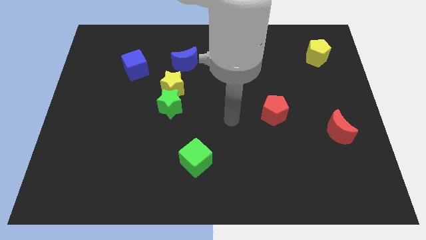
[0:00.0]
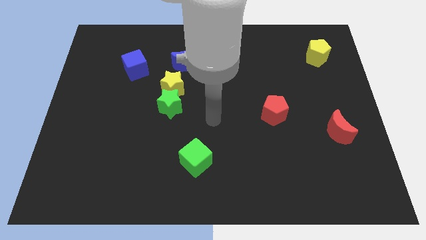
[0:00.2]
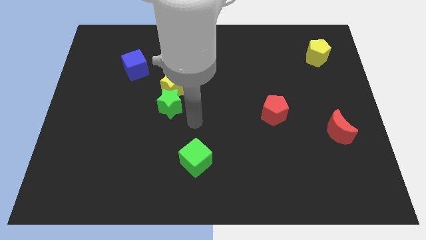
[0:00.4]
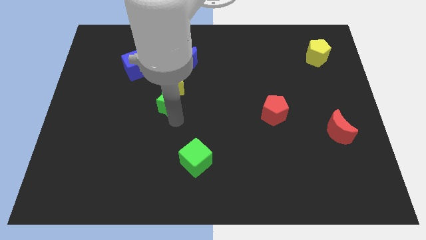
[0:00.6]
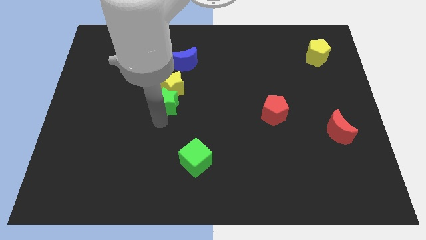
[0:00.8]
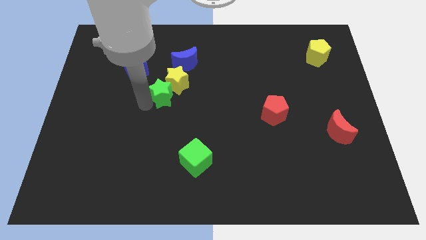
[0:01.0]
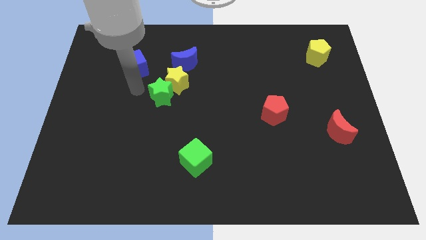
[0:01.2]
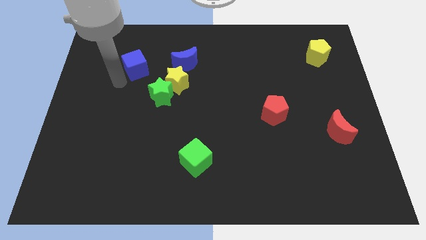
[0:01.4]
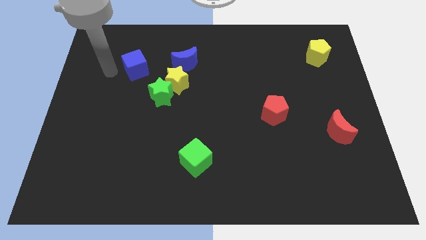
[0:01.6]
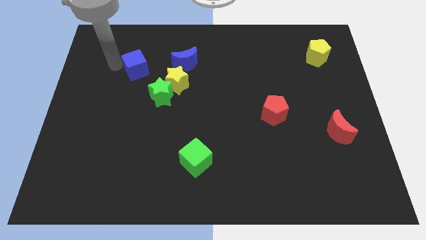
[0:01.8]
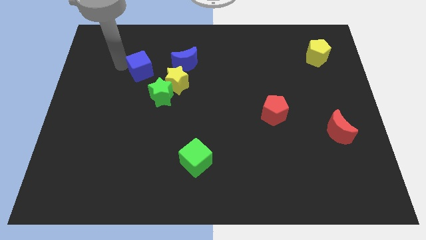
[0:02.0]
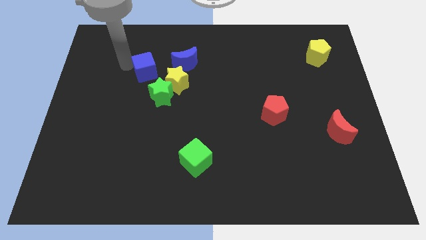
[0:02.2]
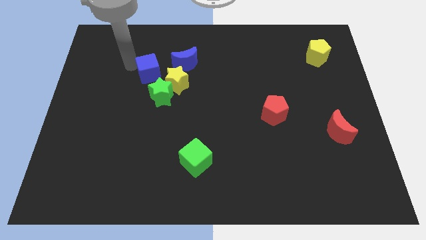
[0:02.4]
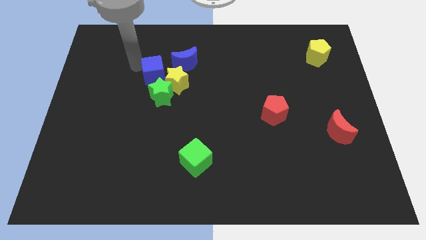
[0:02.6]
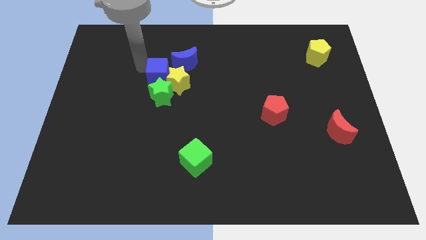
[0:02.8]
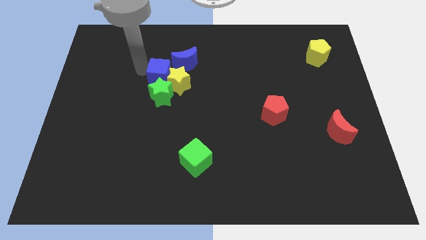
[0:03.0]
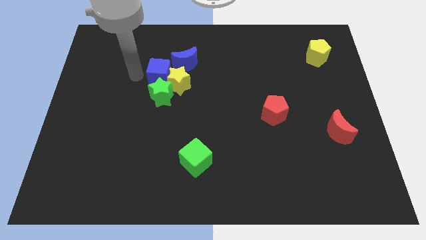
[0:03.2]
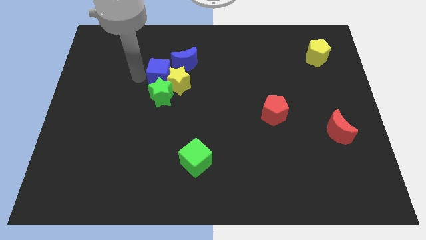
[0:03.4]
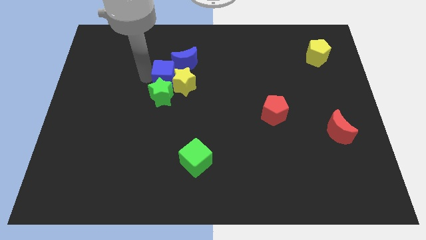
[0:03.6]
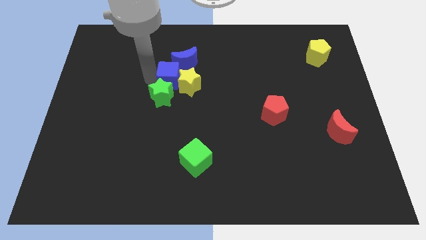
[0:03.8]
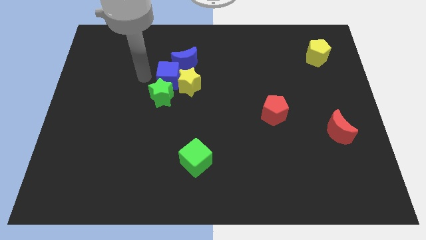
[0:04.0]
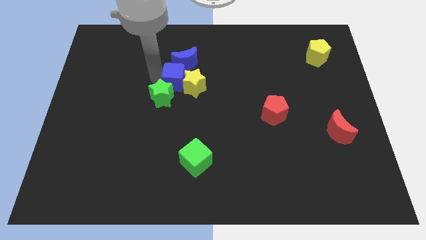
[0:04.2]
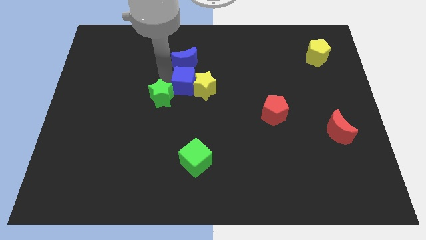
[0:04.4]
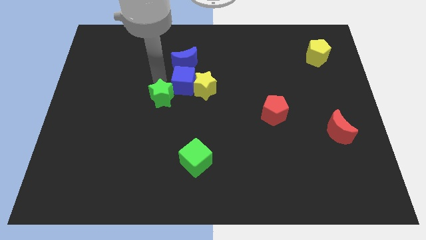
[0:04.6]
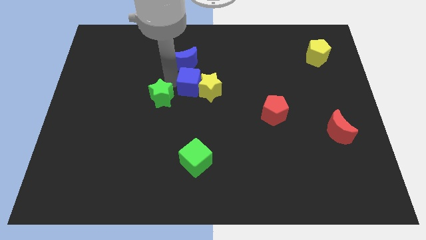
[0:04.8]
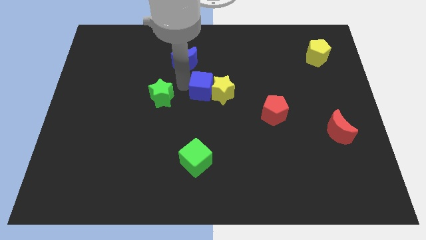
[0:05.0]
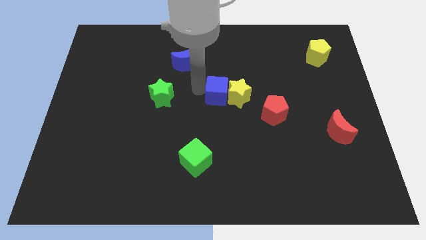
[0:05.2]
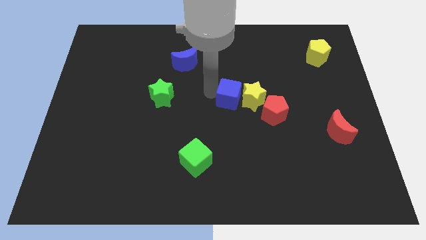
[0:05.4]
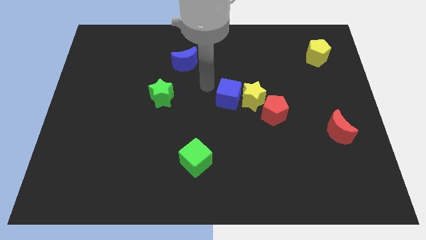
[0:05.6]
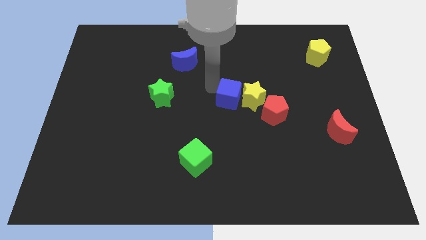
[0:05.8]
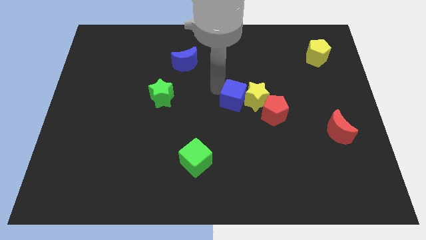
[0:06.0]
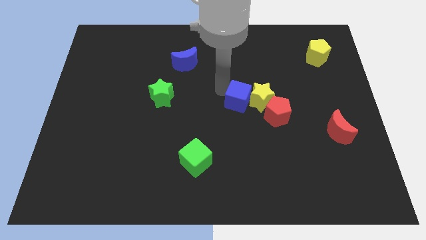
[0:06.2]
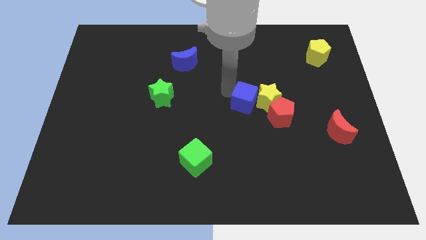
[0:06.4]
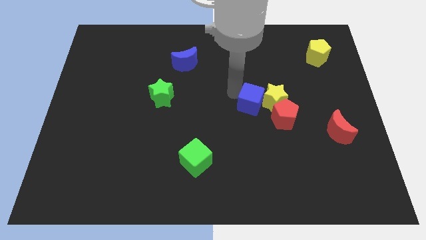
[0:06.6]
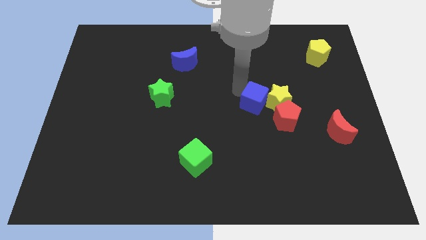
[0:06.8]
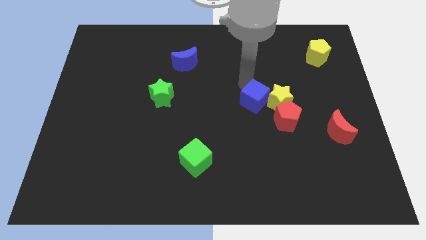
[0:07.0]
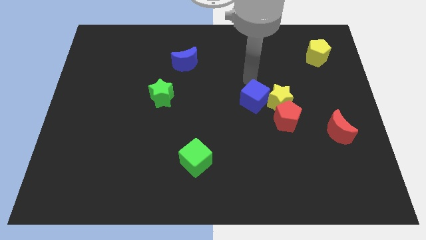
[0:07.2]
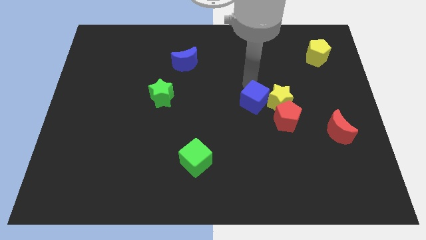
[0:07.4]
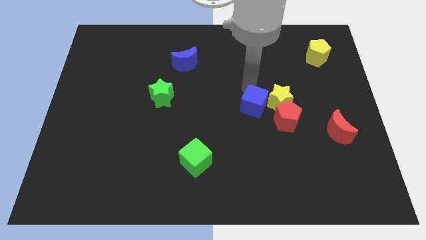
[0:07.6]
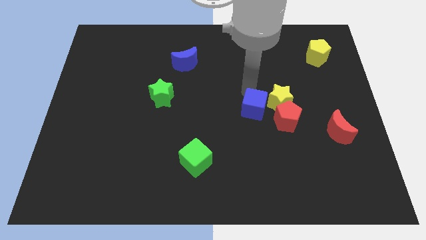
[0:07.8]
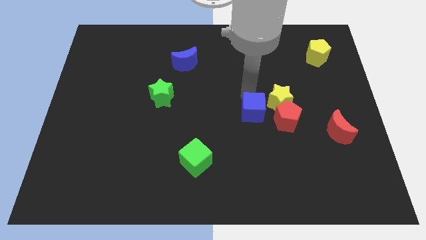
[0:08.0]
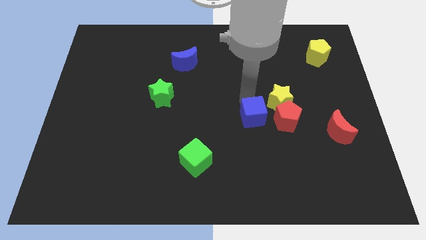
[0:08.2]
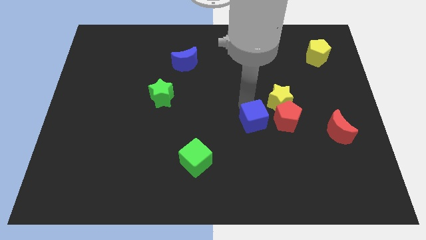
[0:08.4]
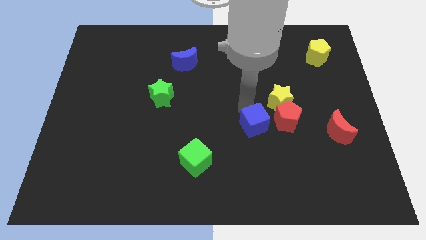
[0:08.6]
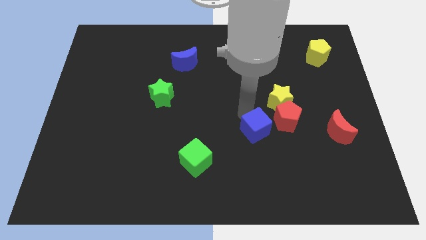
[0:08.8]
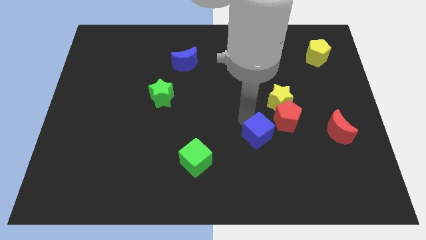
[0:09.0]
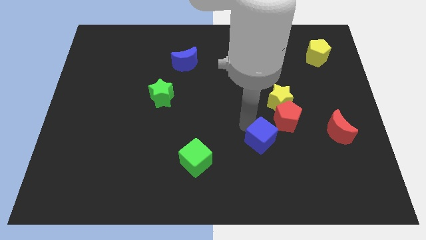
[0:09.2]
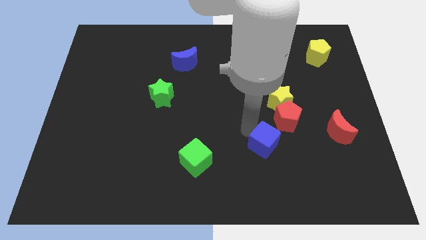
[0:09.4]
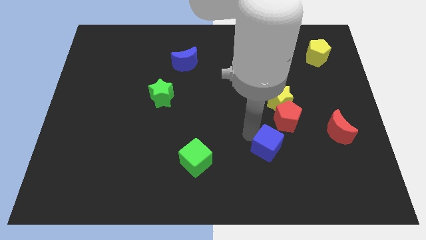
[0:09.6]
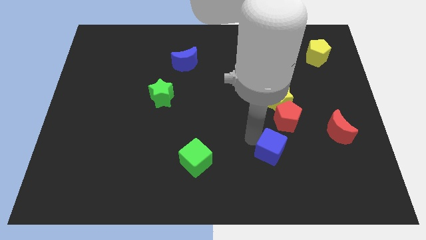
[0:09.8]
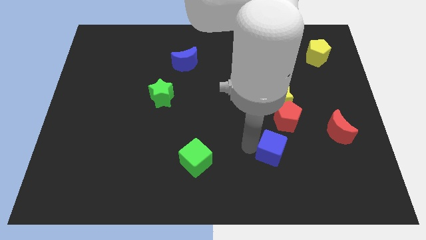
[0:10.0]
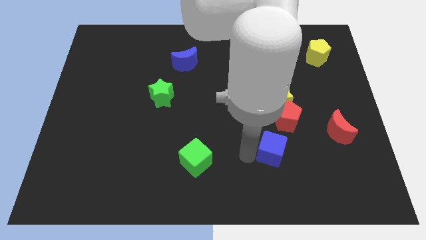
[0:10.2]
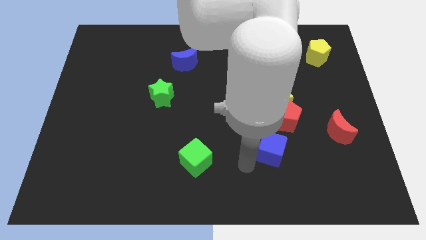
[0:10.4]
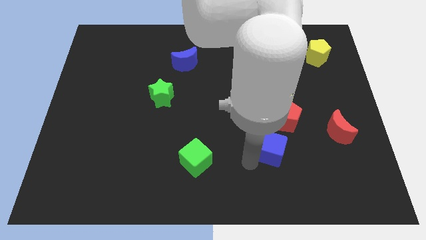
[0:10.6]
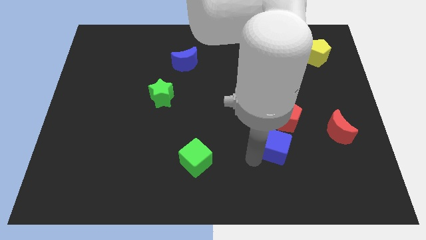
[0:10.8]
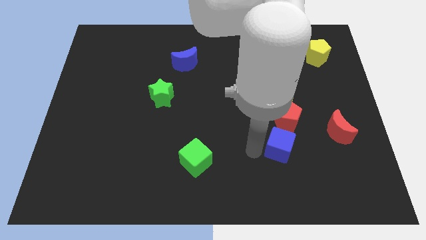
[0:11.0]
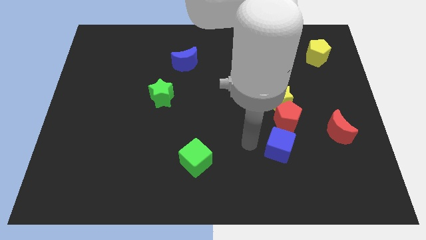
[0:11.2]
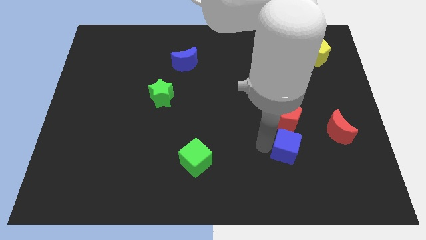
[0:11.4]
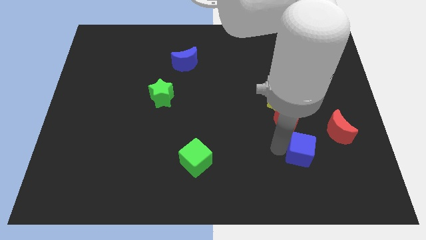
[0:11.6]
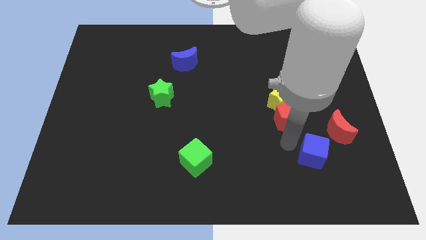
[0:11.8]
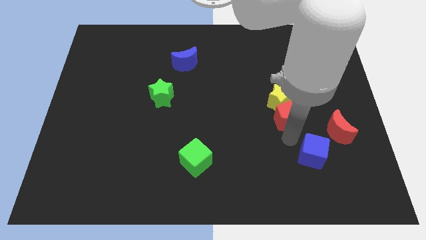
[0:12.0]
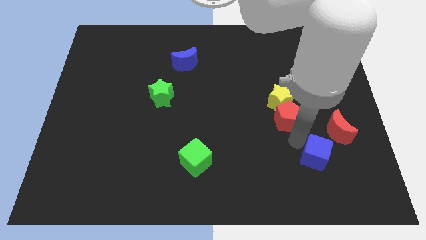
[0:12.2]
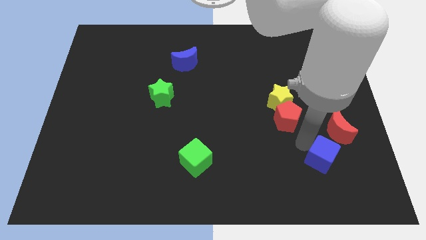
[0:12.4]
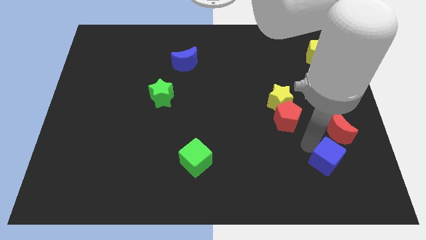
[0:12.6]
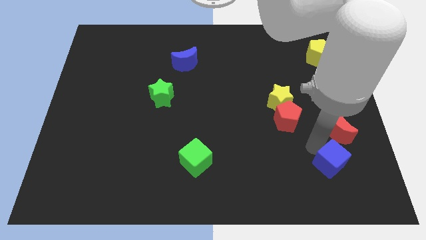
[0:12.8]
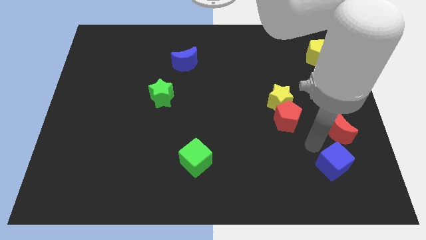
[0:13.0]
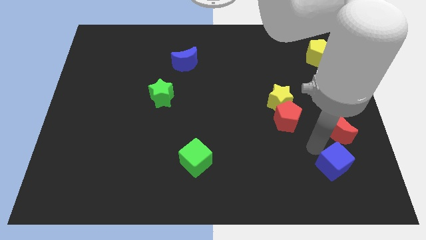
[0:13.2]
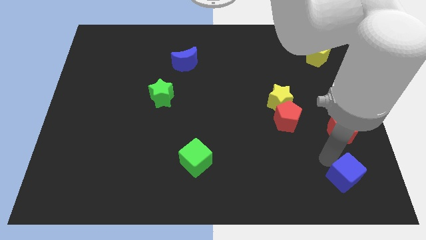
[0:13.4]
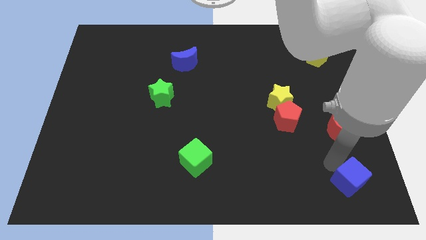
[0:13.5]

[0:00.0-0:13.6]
slide the blue cube to the lower right corner
